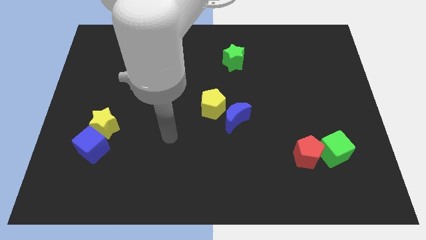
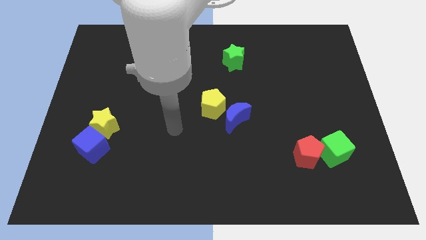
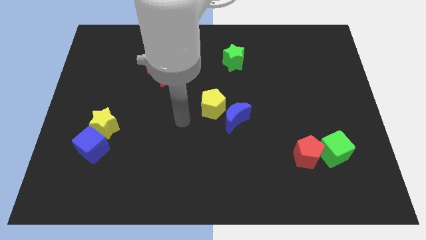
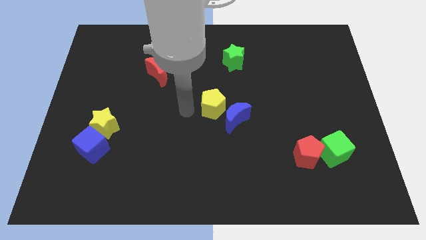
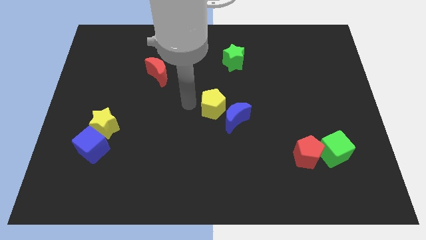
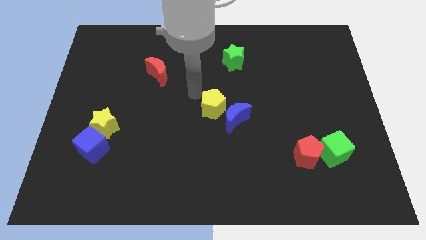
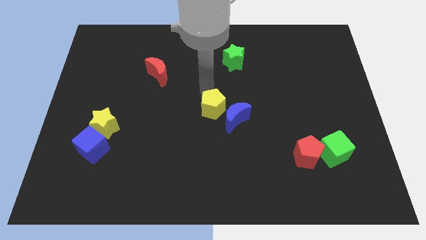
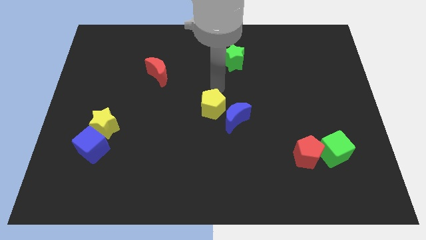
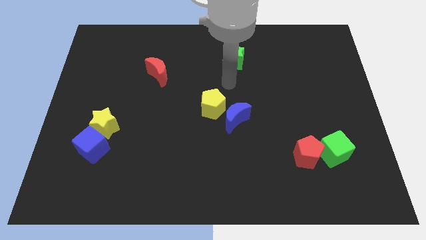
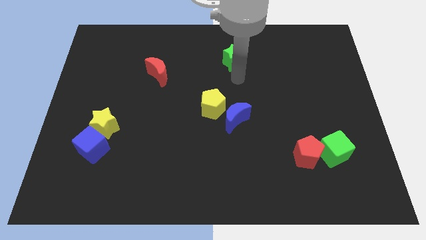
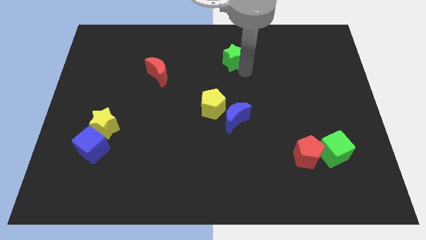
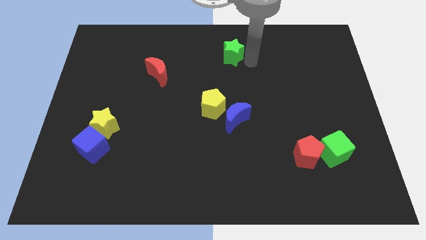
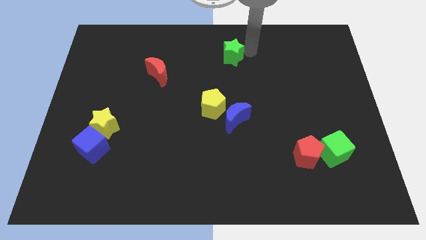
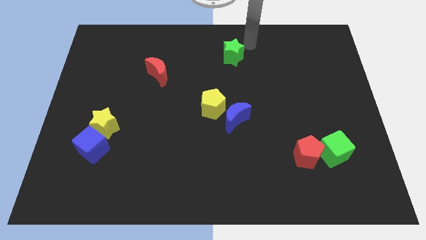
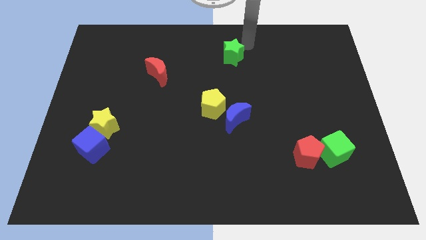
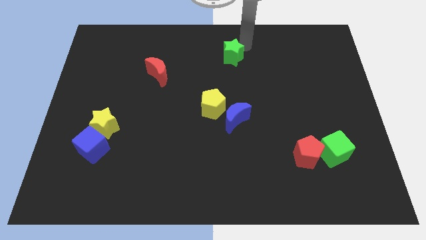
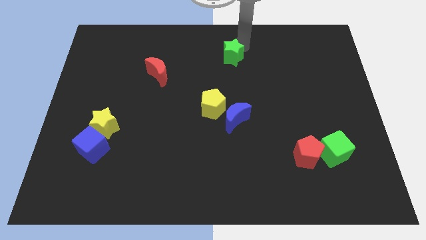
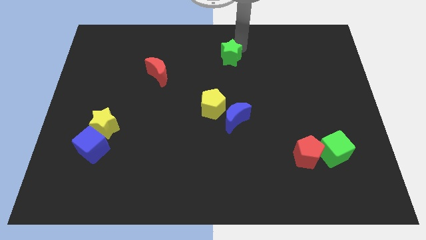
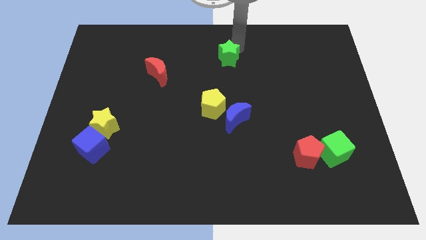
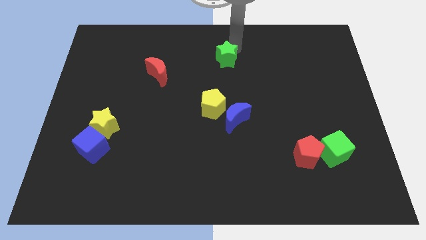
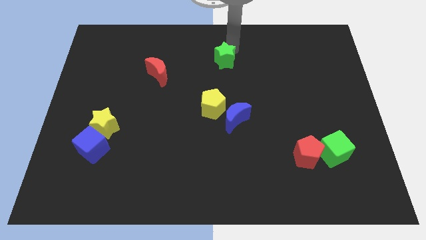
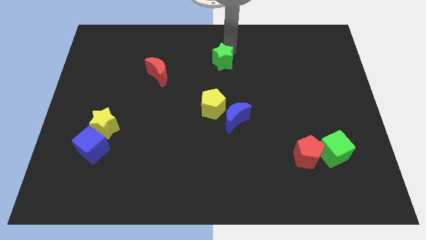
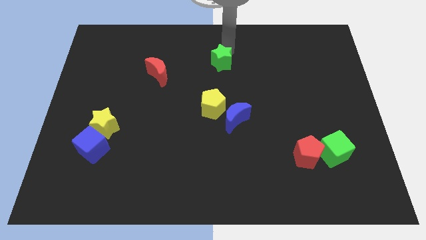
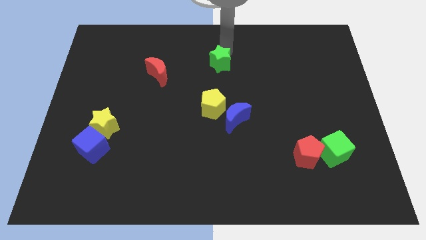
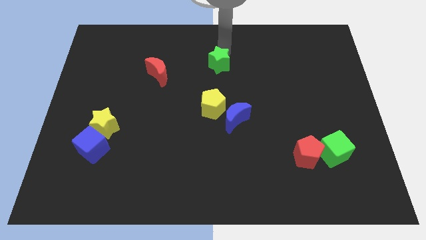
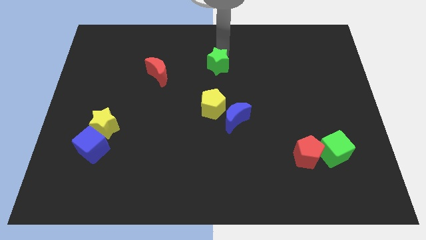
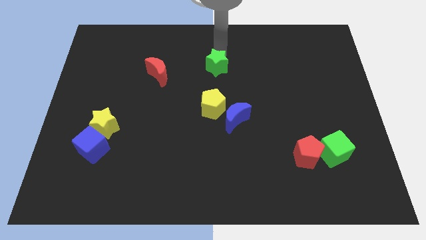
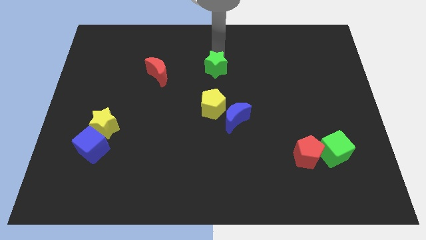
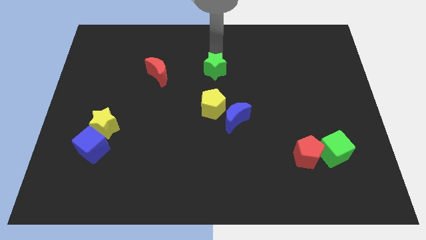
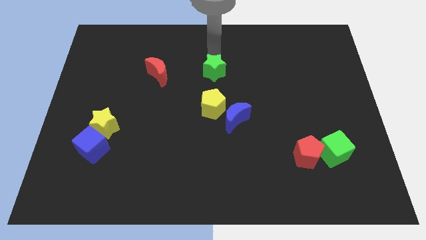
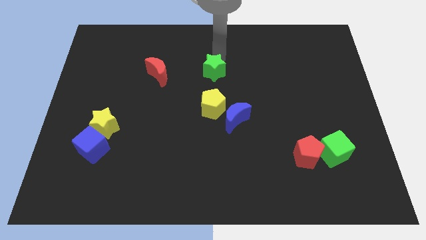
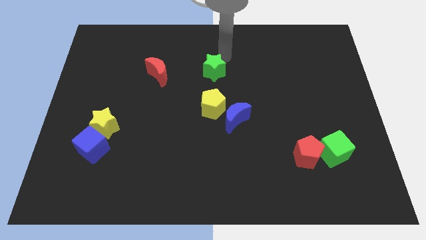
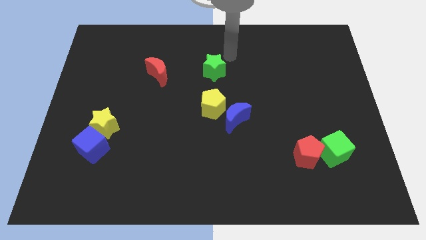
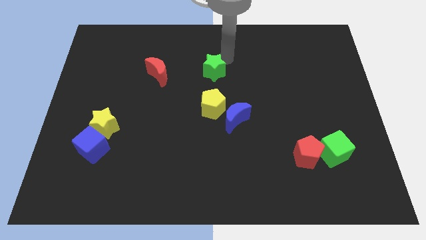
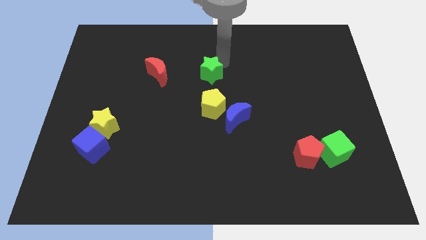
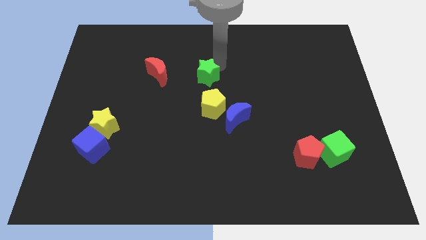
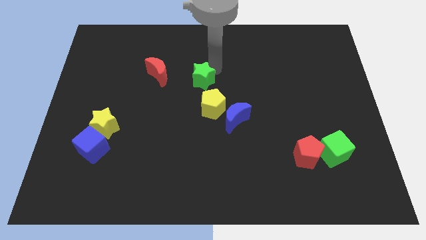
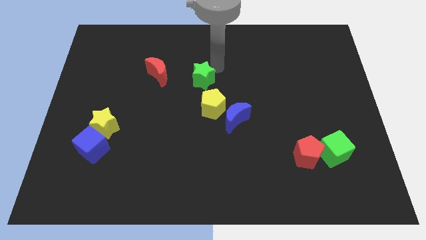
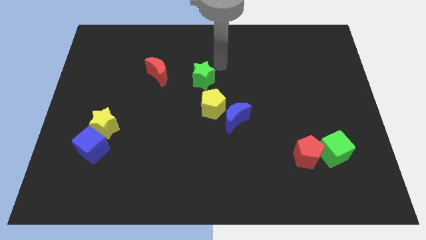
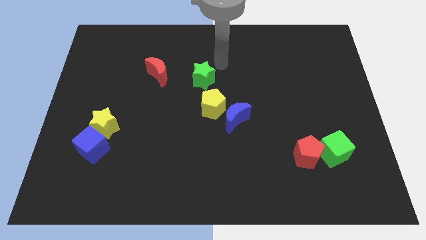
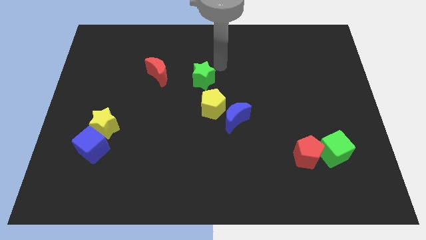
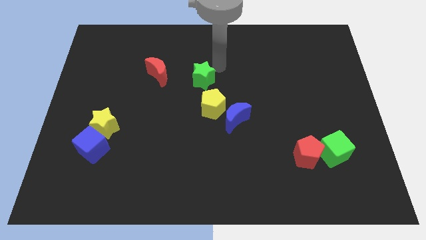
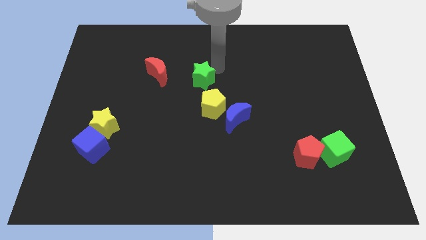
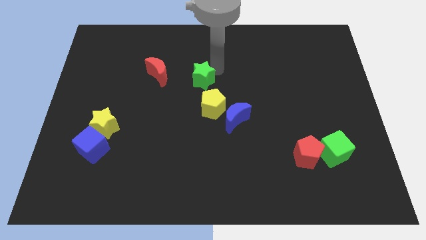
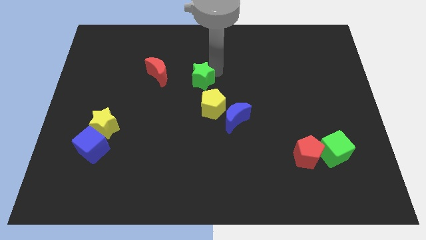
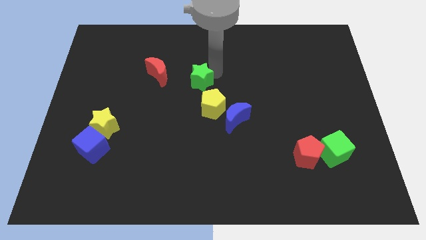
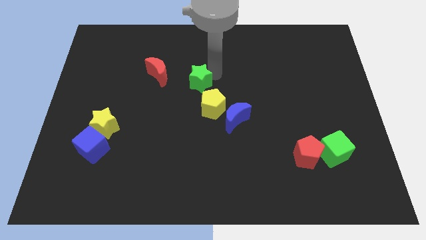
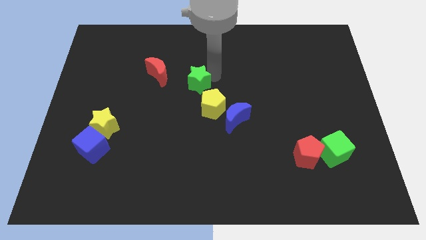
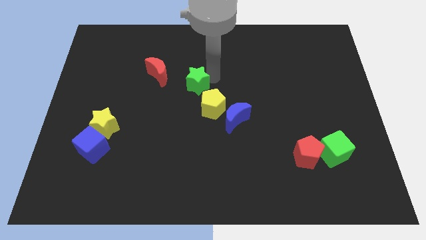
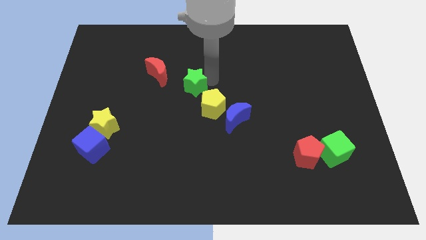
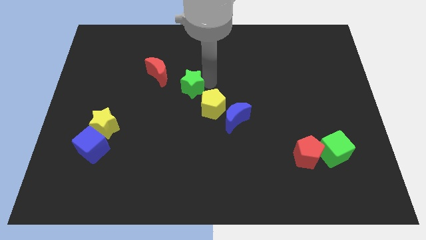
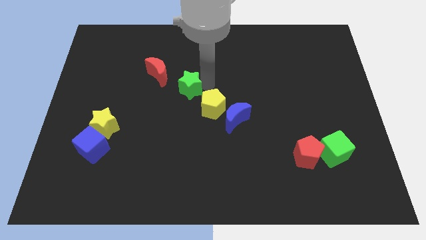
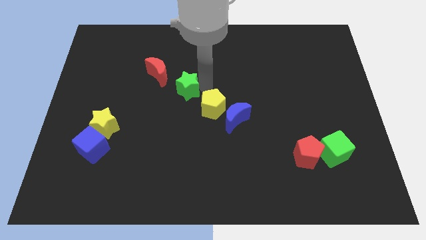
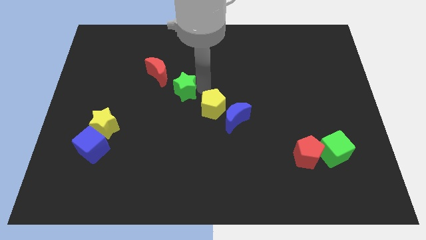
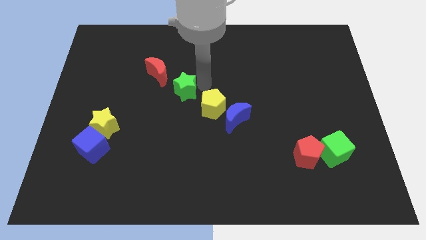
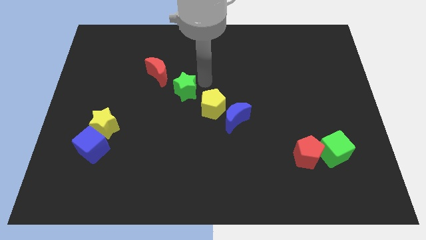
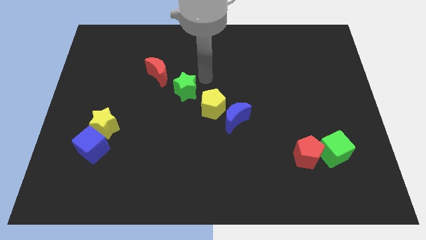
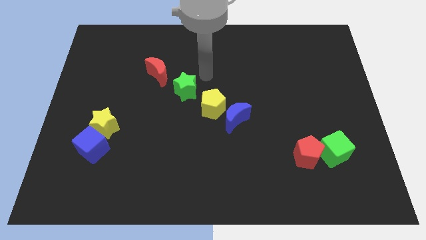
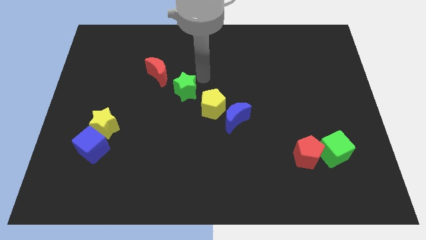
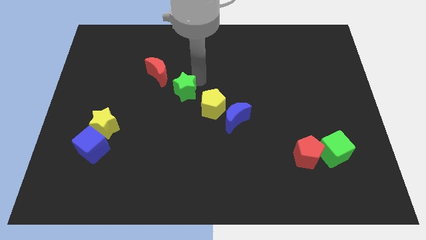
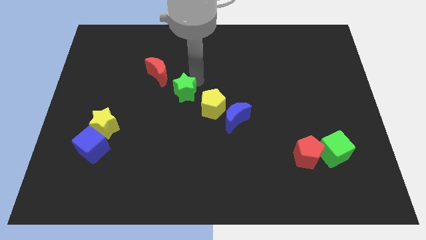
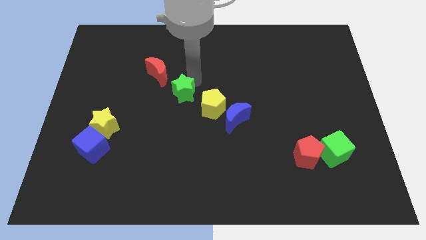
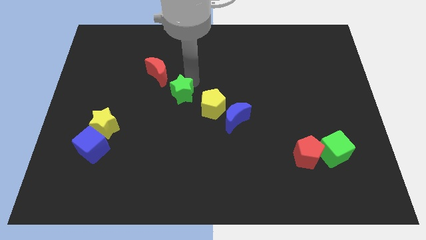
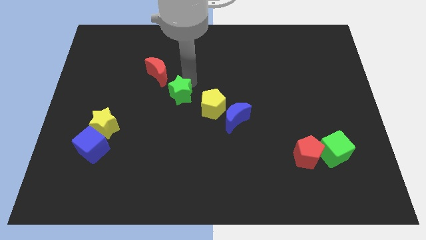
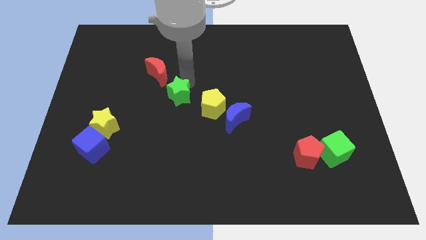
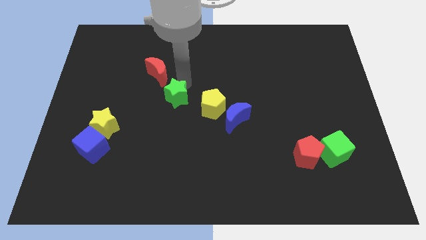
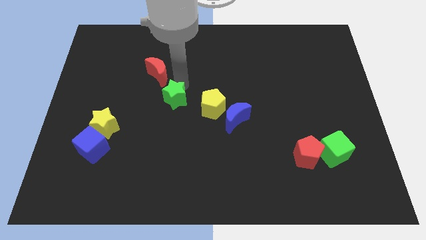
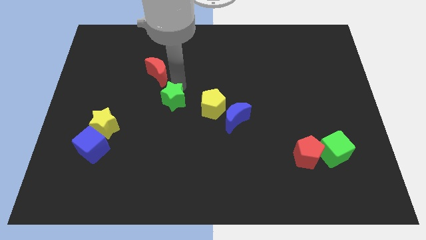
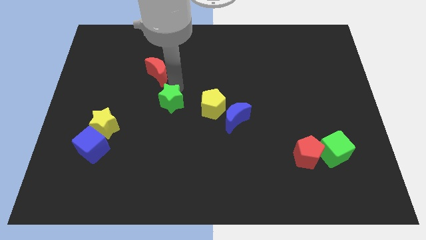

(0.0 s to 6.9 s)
move the green star down and then to the left
